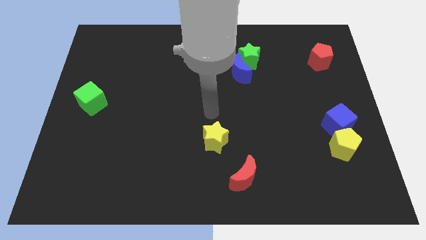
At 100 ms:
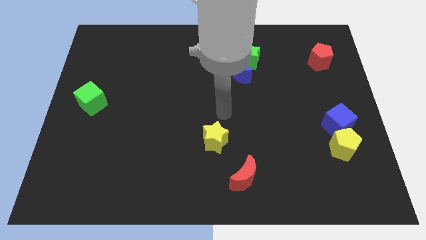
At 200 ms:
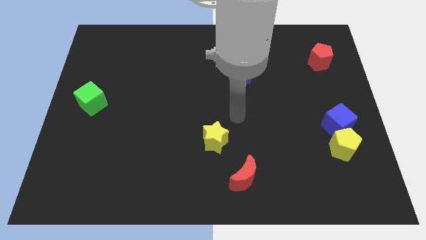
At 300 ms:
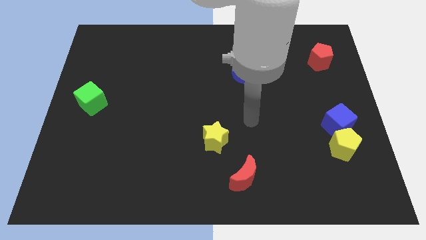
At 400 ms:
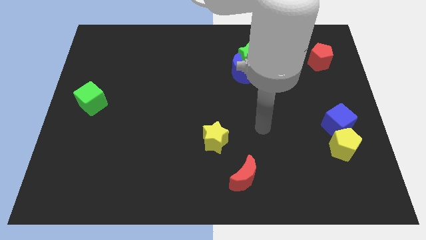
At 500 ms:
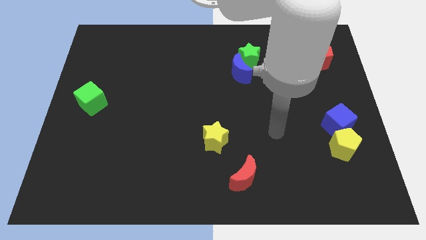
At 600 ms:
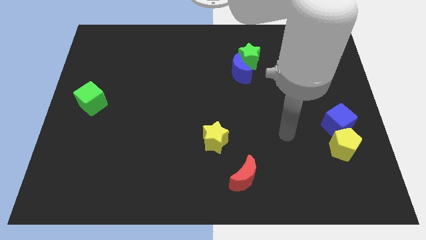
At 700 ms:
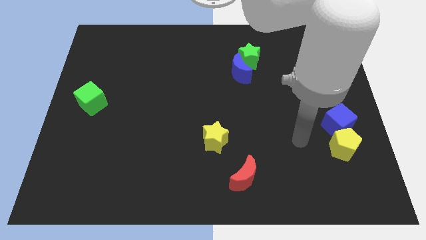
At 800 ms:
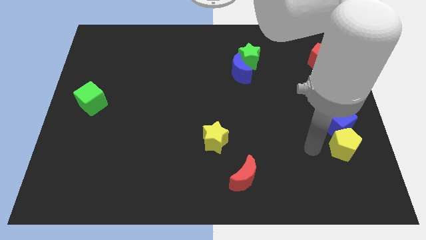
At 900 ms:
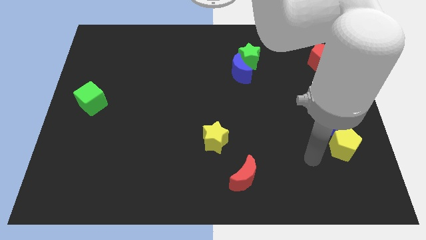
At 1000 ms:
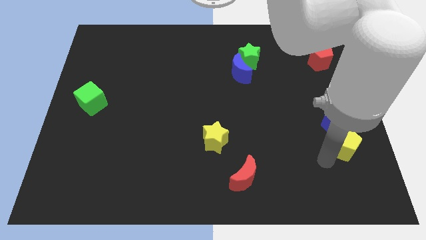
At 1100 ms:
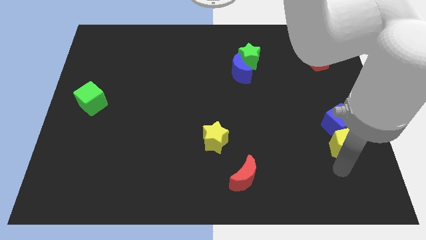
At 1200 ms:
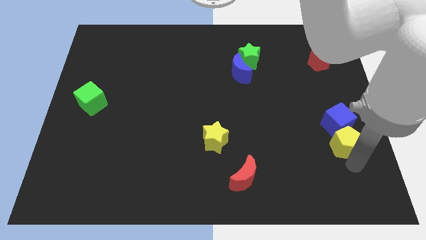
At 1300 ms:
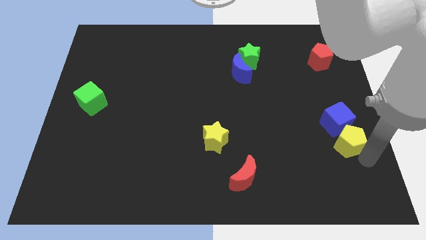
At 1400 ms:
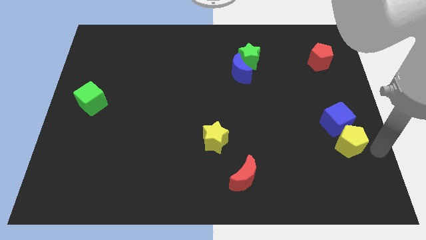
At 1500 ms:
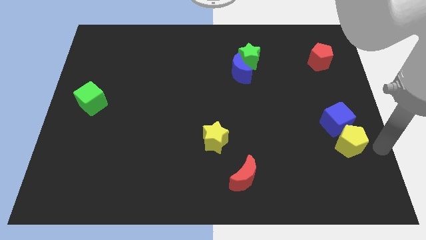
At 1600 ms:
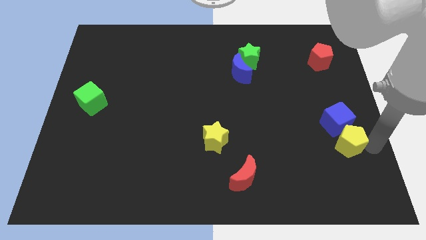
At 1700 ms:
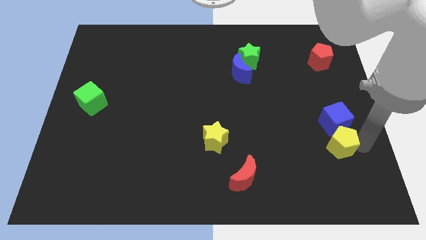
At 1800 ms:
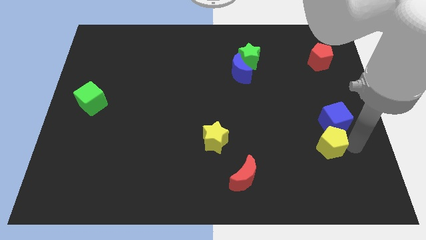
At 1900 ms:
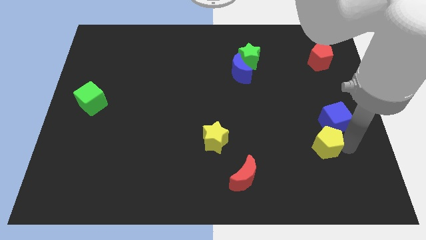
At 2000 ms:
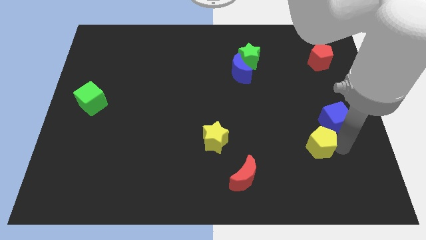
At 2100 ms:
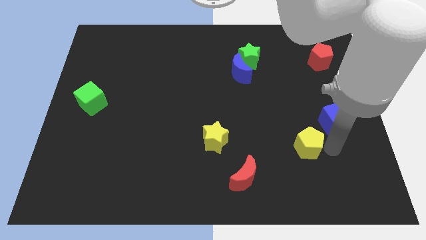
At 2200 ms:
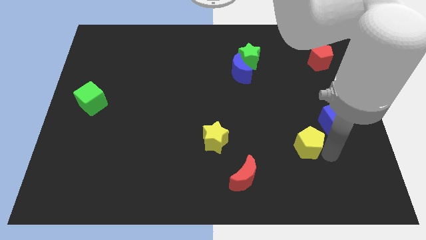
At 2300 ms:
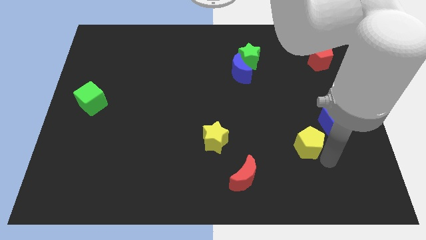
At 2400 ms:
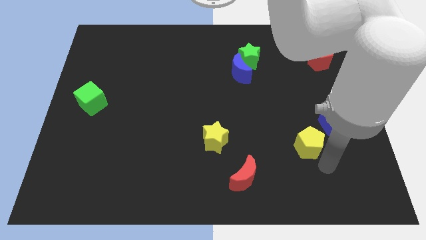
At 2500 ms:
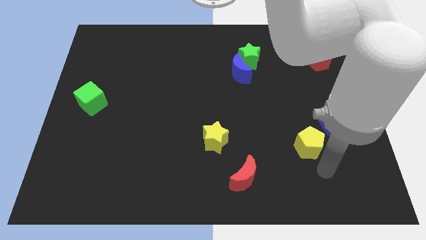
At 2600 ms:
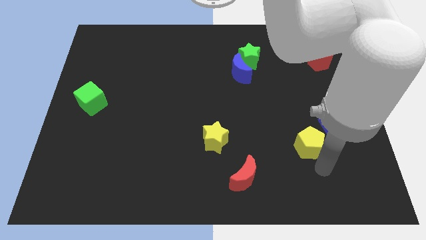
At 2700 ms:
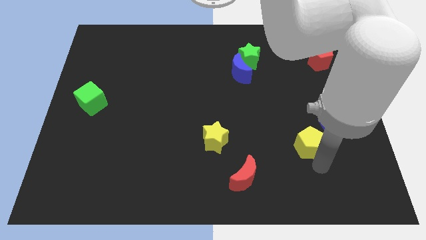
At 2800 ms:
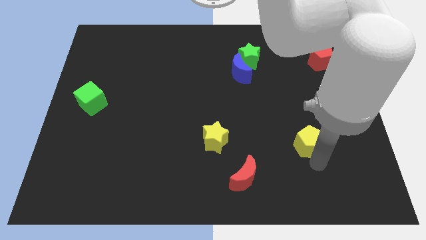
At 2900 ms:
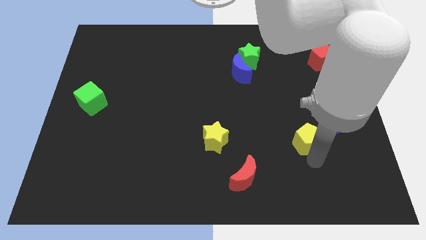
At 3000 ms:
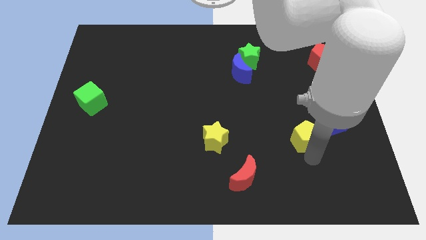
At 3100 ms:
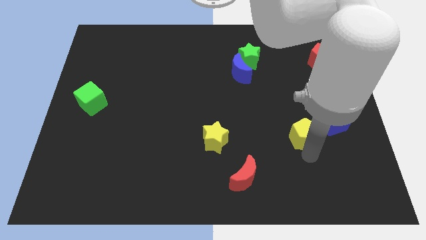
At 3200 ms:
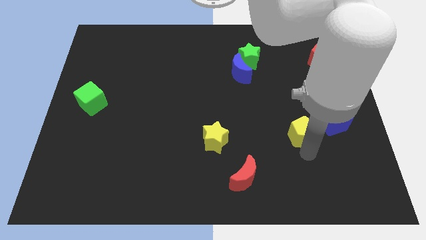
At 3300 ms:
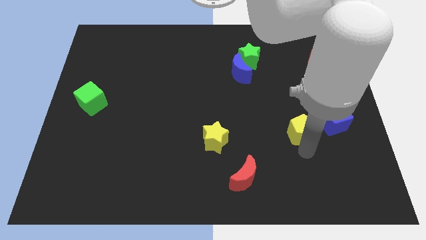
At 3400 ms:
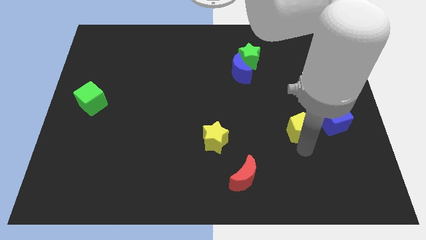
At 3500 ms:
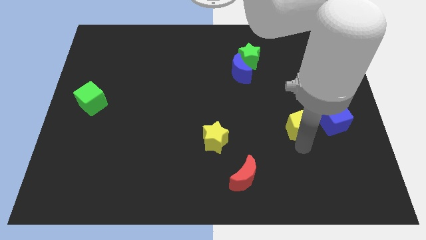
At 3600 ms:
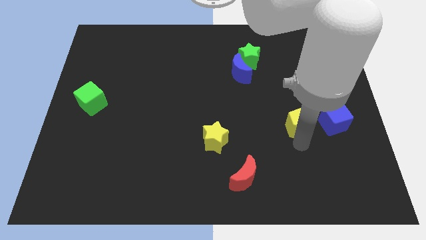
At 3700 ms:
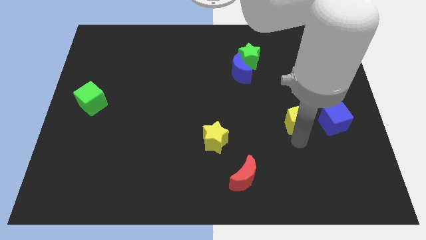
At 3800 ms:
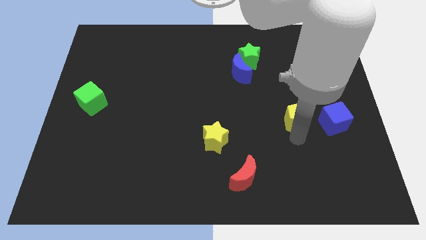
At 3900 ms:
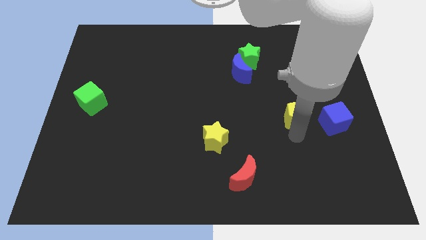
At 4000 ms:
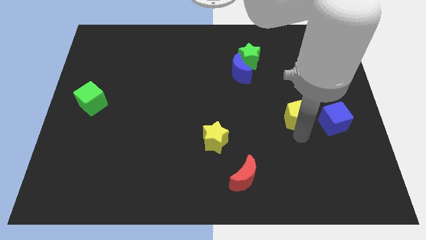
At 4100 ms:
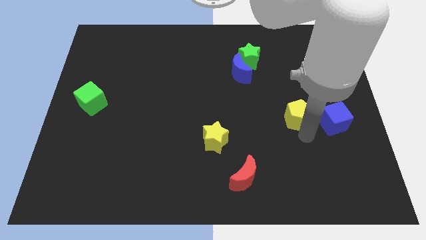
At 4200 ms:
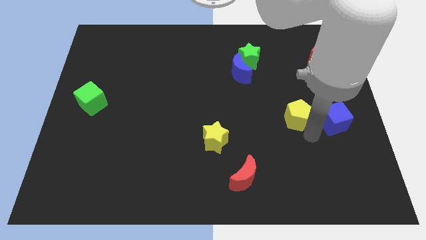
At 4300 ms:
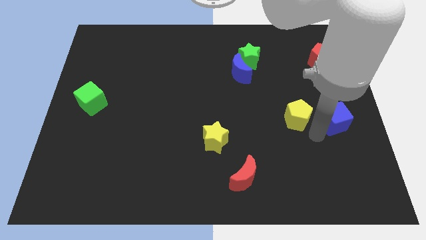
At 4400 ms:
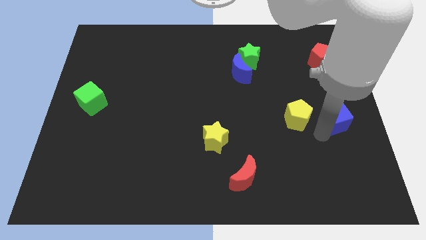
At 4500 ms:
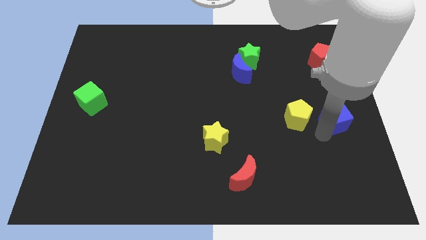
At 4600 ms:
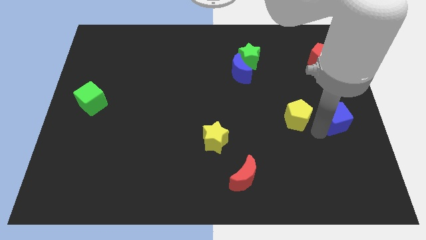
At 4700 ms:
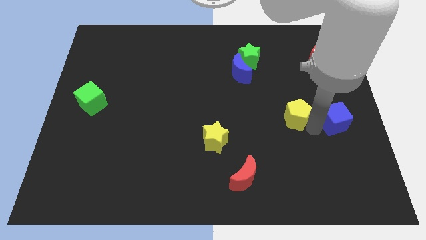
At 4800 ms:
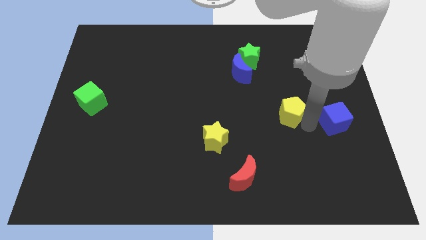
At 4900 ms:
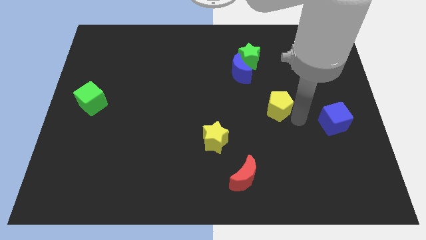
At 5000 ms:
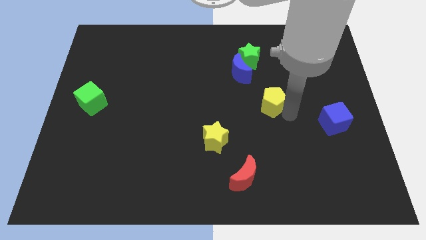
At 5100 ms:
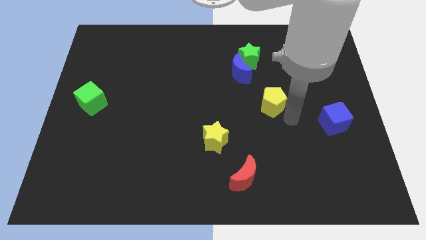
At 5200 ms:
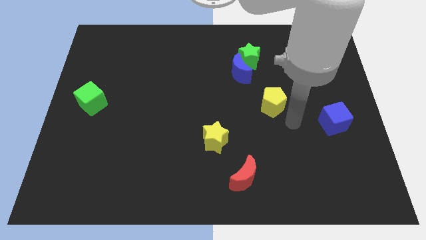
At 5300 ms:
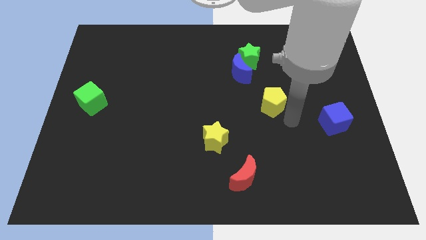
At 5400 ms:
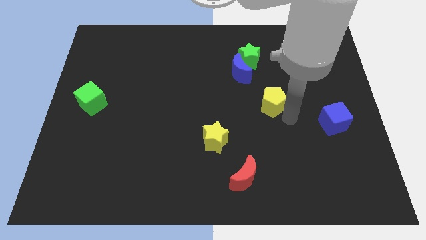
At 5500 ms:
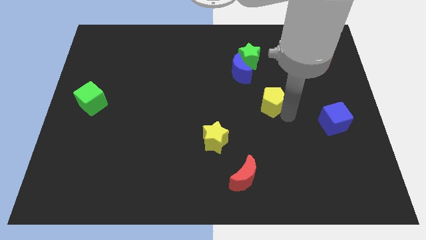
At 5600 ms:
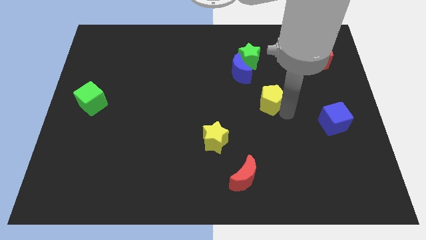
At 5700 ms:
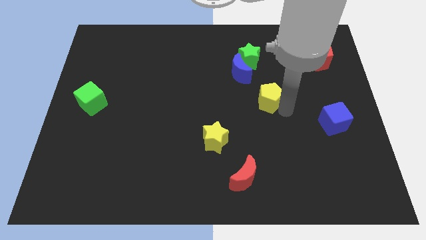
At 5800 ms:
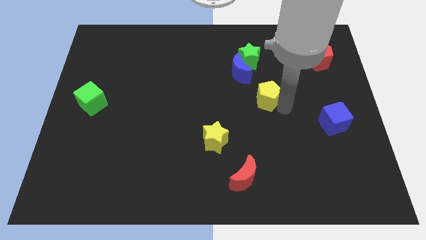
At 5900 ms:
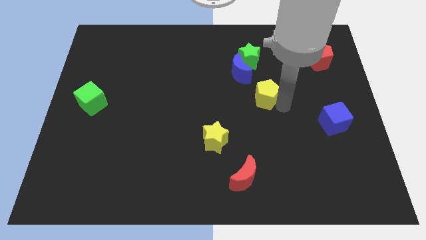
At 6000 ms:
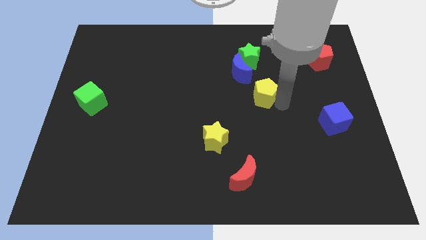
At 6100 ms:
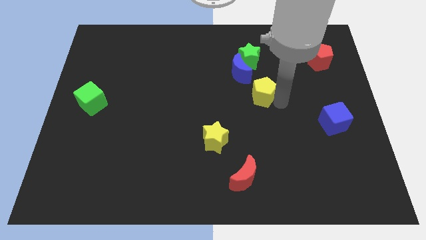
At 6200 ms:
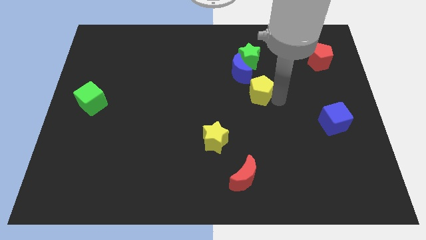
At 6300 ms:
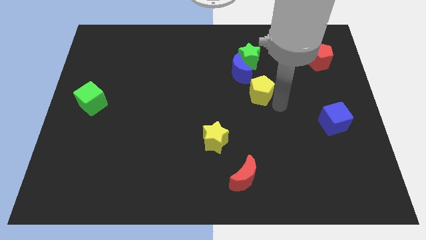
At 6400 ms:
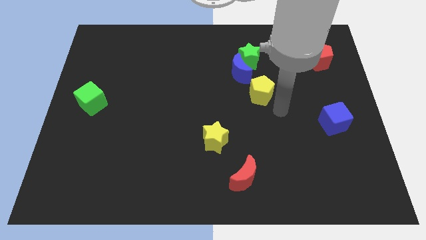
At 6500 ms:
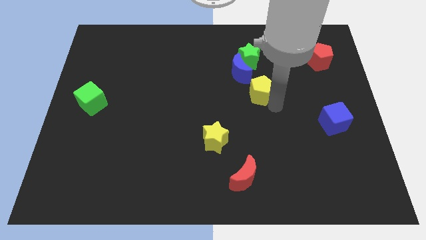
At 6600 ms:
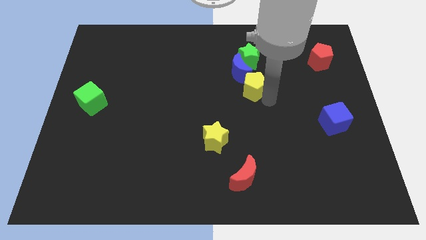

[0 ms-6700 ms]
move the yellow pentagon to the blue moon

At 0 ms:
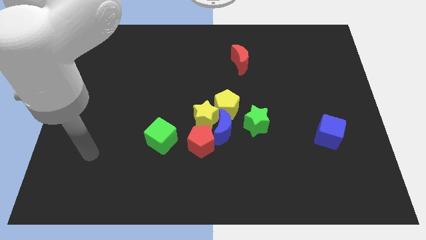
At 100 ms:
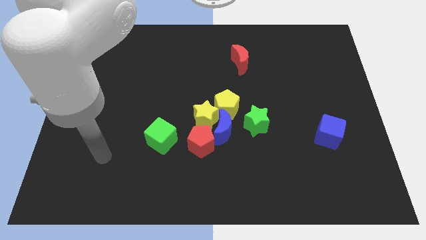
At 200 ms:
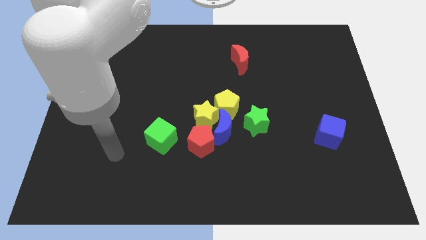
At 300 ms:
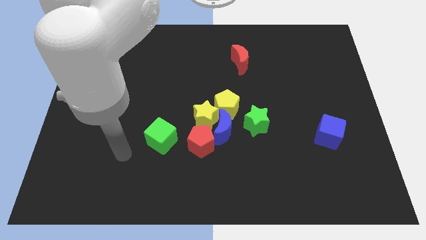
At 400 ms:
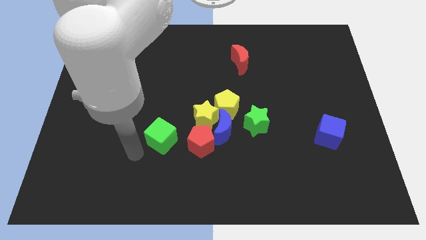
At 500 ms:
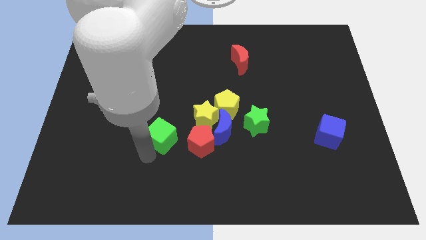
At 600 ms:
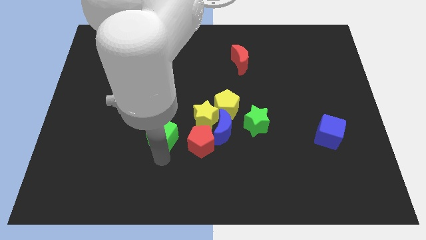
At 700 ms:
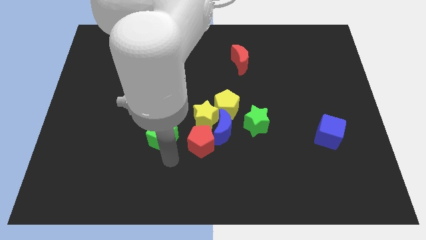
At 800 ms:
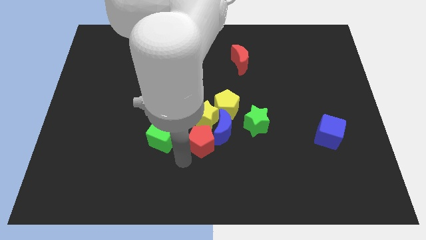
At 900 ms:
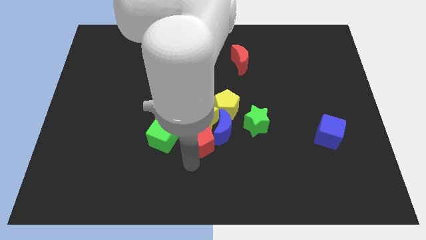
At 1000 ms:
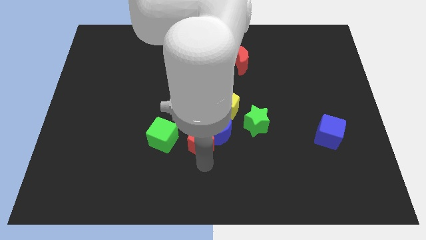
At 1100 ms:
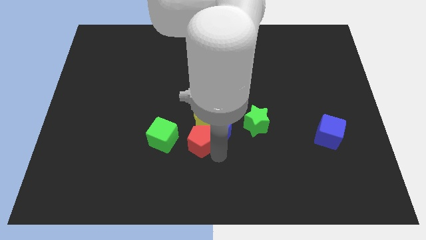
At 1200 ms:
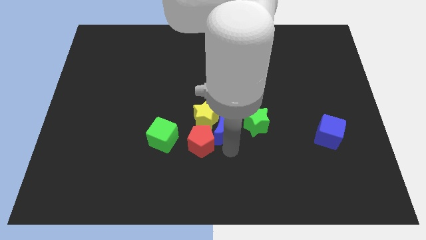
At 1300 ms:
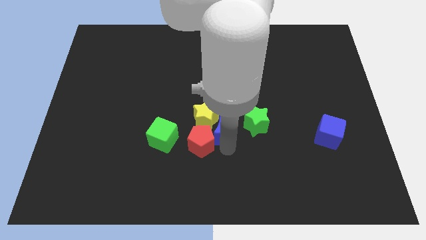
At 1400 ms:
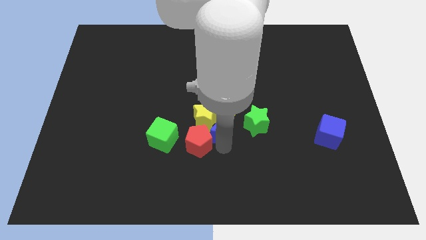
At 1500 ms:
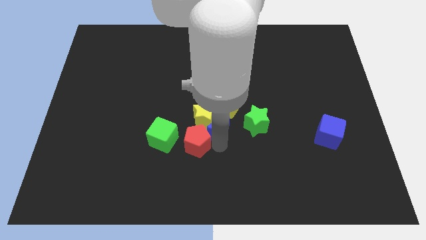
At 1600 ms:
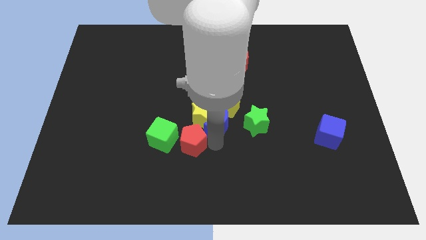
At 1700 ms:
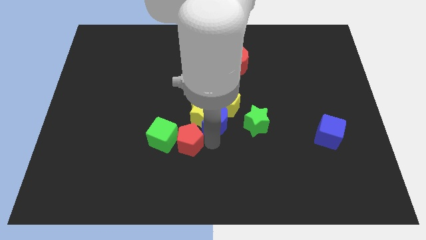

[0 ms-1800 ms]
put the red pentagon towards the green cube
